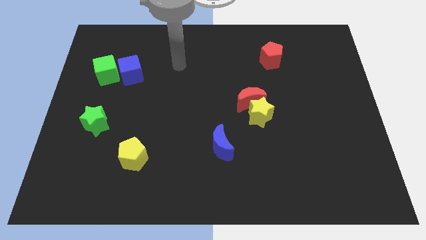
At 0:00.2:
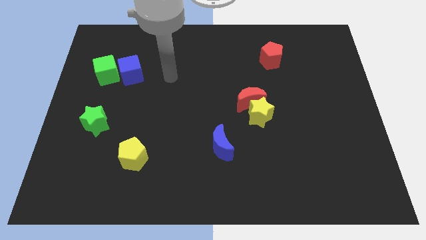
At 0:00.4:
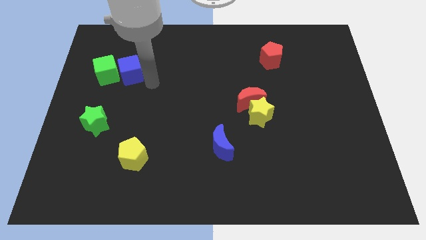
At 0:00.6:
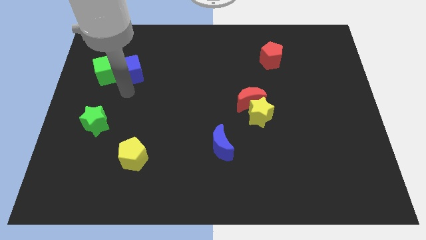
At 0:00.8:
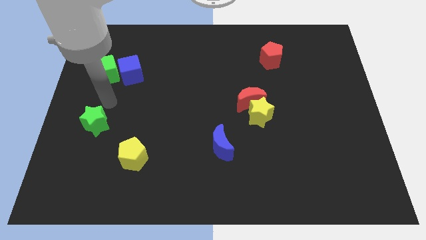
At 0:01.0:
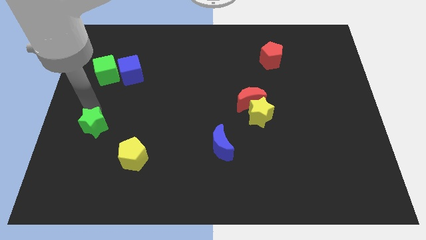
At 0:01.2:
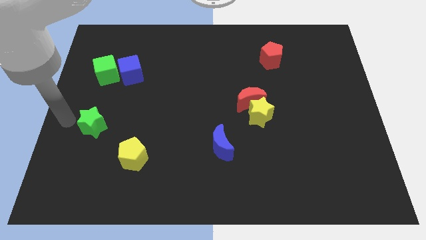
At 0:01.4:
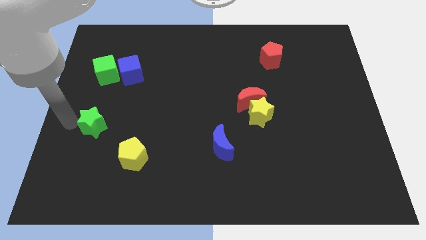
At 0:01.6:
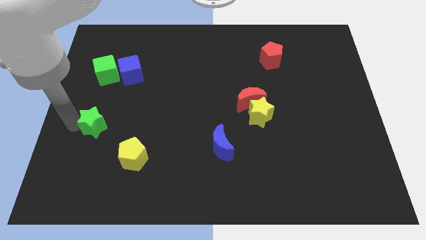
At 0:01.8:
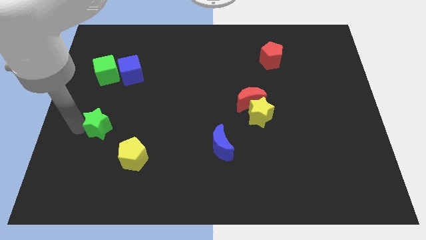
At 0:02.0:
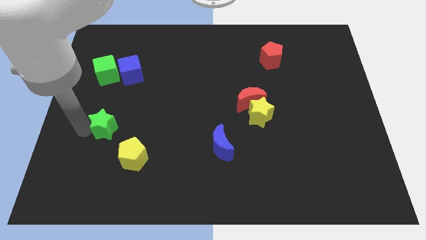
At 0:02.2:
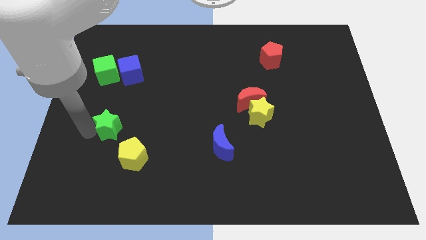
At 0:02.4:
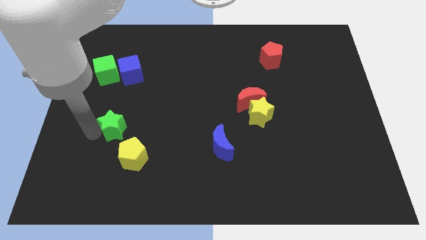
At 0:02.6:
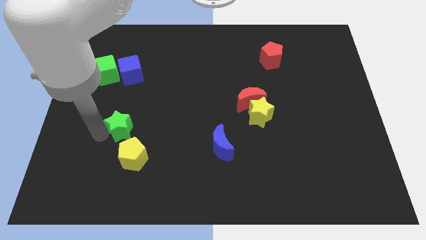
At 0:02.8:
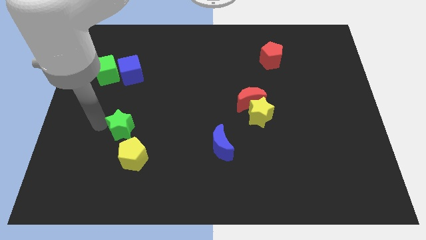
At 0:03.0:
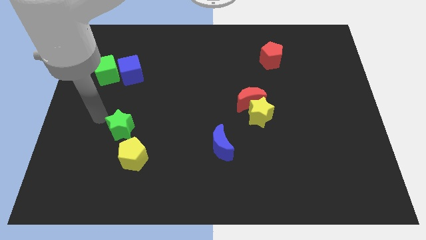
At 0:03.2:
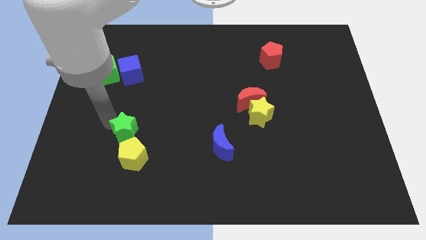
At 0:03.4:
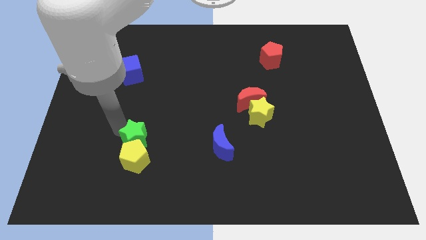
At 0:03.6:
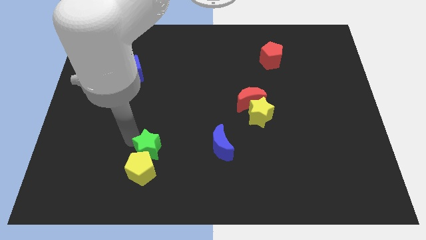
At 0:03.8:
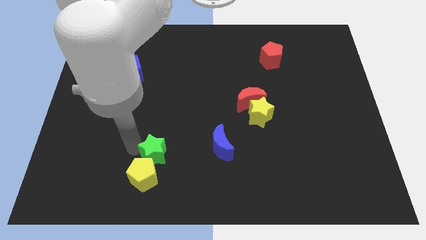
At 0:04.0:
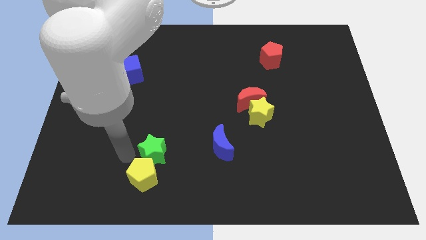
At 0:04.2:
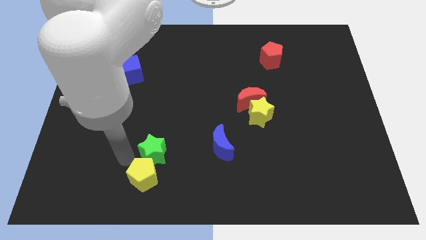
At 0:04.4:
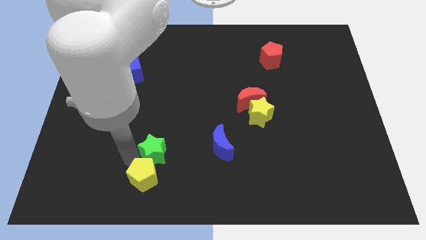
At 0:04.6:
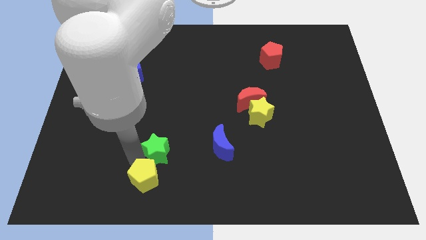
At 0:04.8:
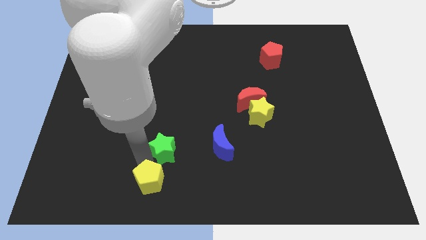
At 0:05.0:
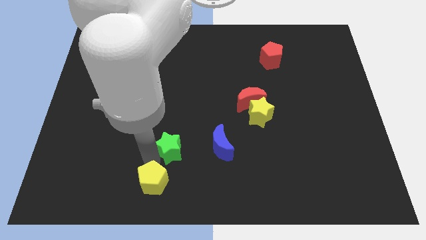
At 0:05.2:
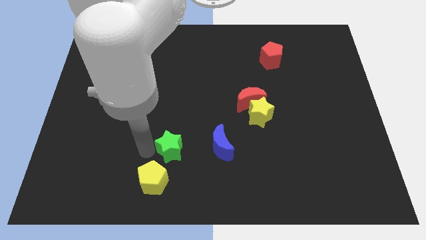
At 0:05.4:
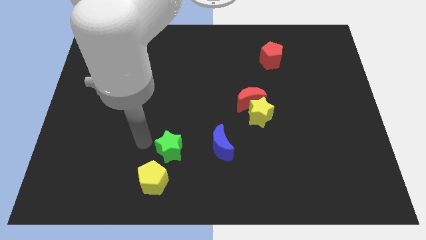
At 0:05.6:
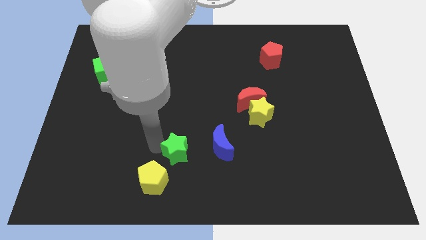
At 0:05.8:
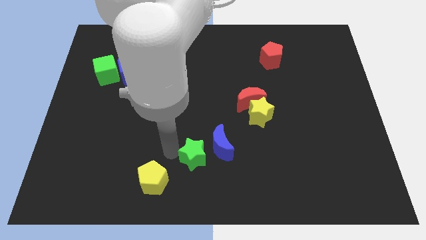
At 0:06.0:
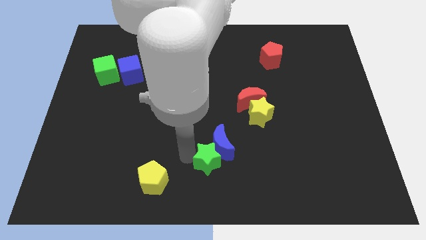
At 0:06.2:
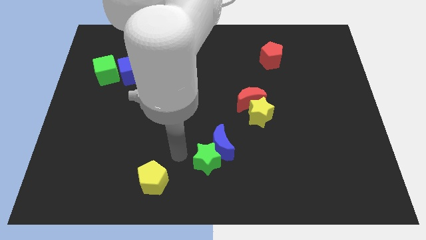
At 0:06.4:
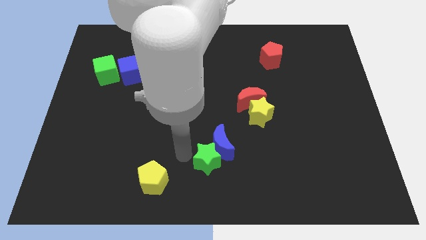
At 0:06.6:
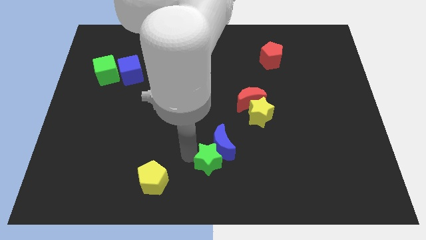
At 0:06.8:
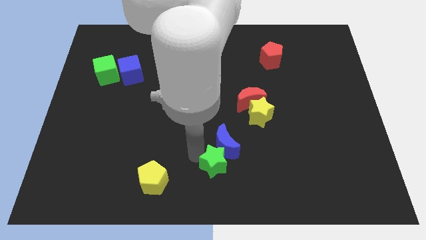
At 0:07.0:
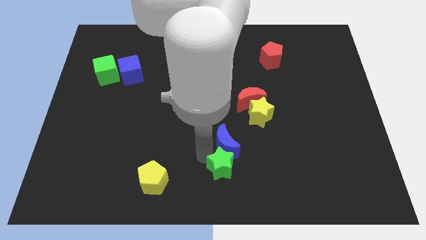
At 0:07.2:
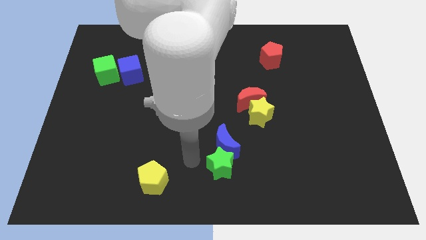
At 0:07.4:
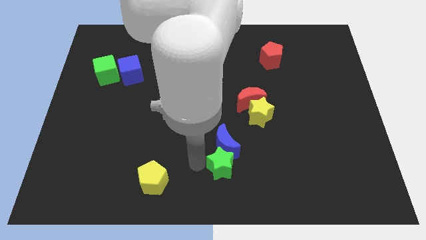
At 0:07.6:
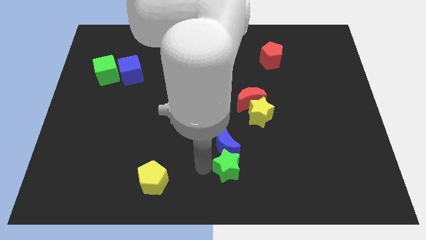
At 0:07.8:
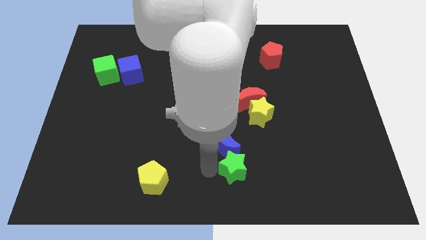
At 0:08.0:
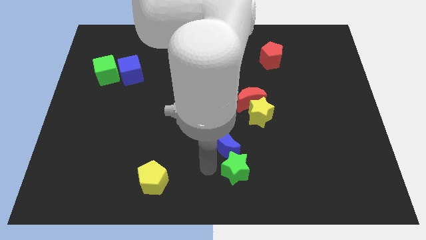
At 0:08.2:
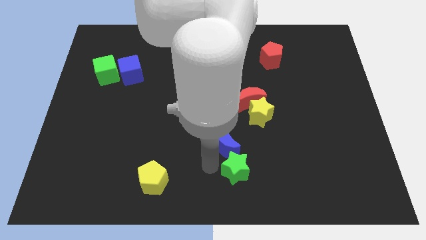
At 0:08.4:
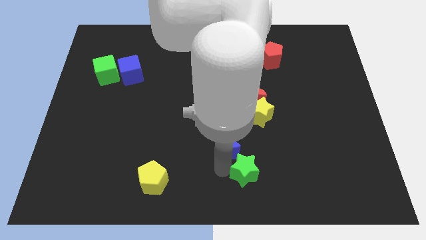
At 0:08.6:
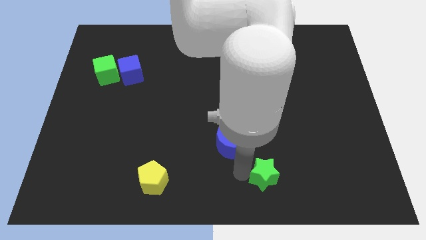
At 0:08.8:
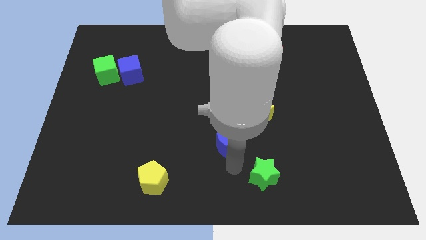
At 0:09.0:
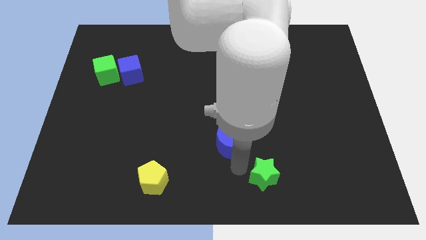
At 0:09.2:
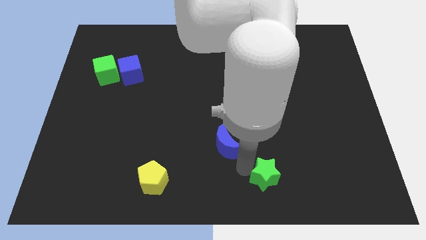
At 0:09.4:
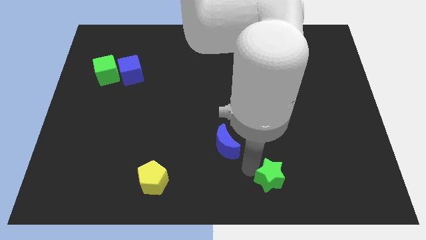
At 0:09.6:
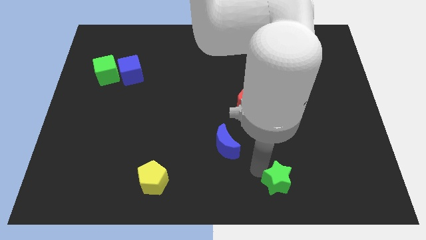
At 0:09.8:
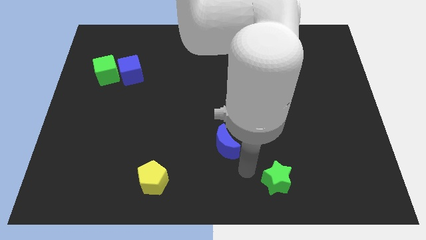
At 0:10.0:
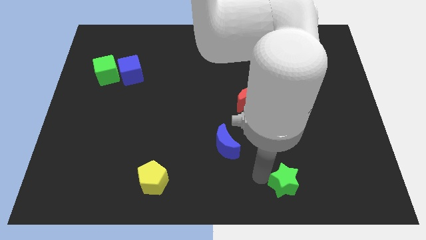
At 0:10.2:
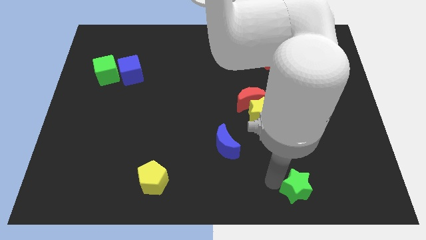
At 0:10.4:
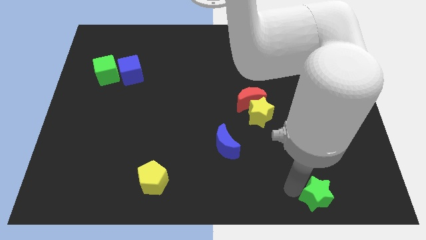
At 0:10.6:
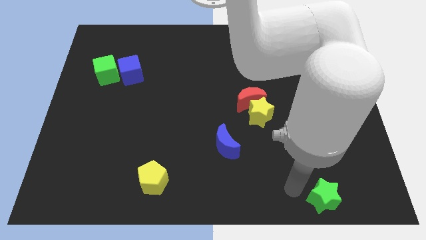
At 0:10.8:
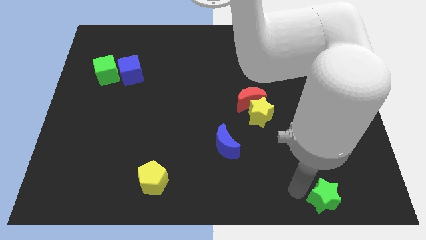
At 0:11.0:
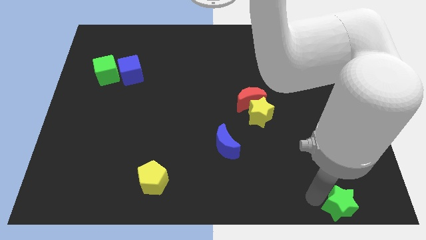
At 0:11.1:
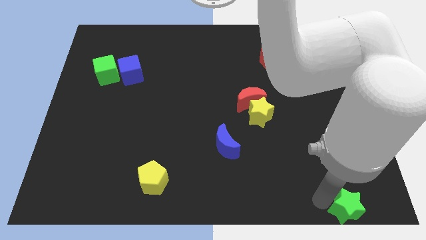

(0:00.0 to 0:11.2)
move the green star to the lower right corner

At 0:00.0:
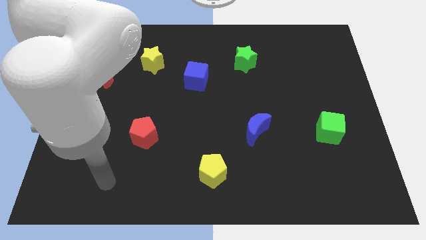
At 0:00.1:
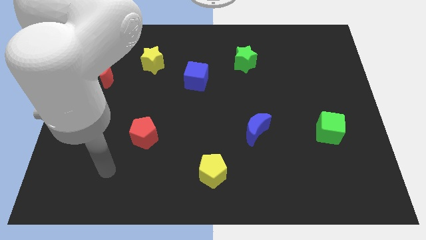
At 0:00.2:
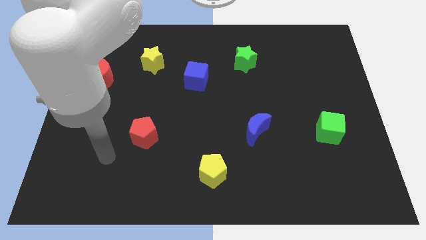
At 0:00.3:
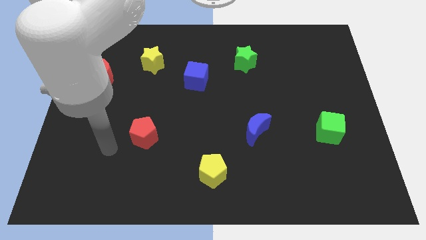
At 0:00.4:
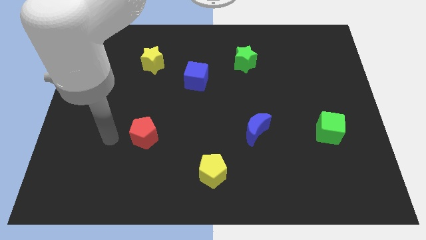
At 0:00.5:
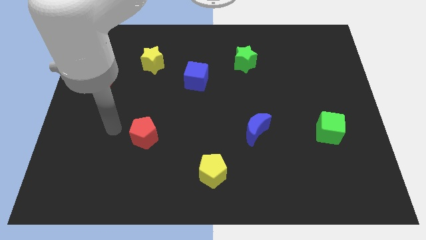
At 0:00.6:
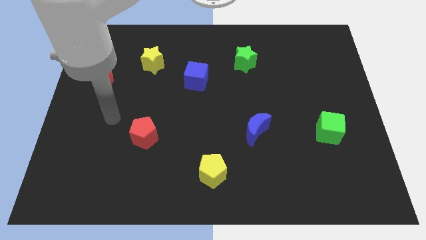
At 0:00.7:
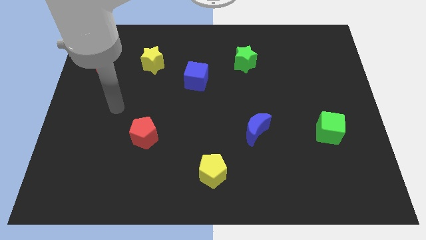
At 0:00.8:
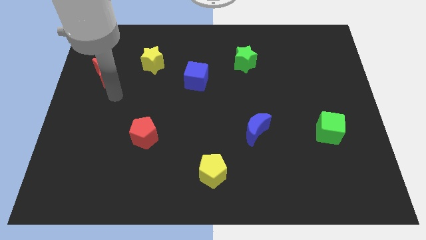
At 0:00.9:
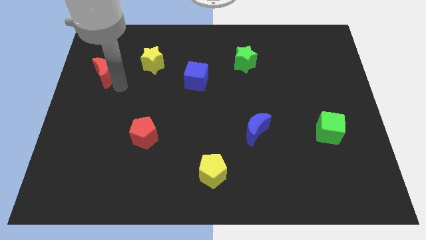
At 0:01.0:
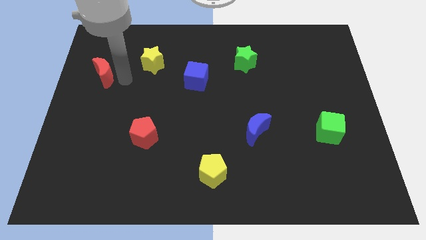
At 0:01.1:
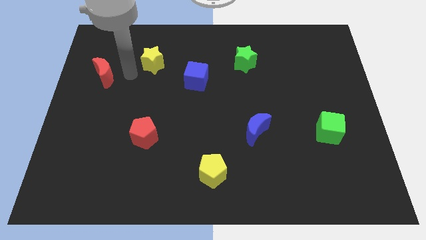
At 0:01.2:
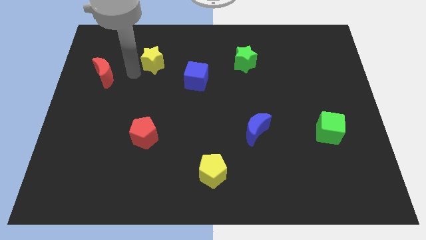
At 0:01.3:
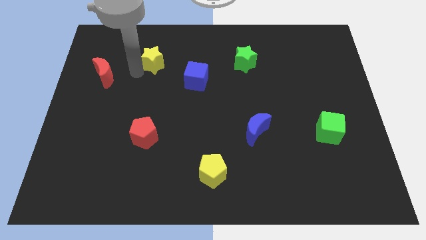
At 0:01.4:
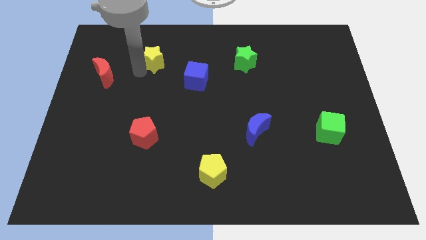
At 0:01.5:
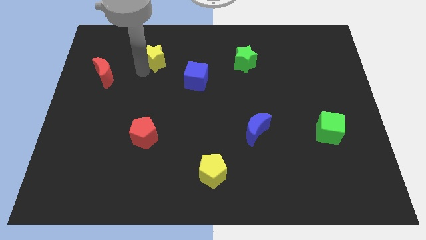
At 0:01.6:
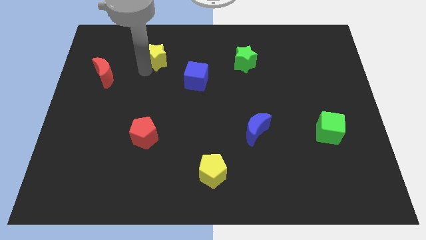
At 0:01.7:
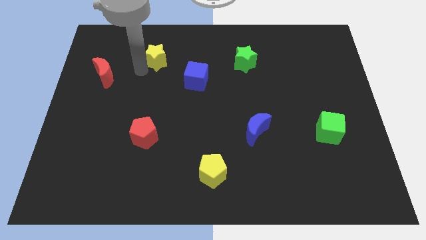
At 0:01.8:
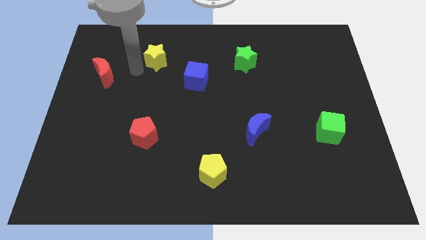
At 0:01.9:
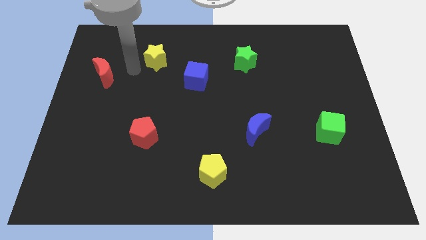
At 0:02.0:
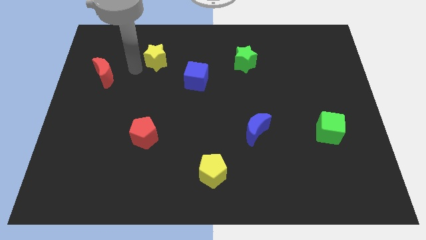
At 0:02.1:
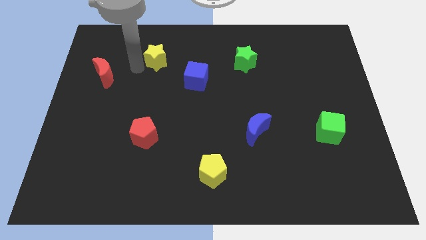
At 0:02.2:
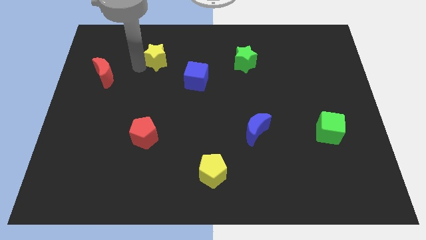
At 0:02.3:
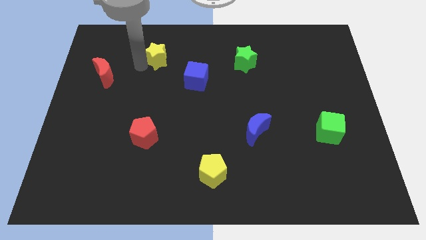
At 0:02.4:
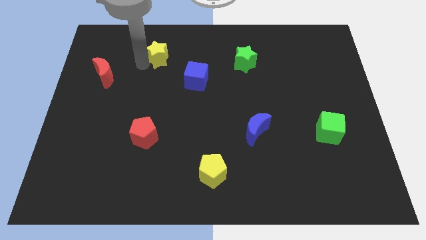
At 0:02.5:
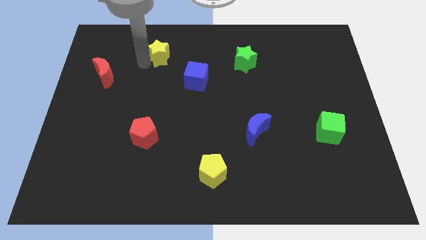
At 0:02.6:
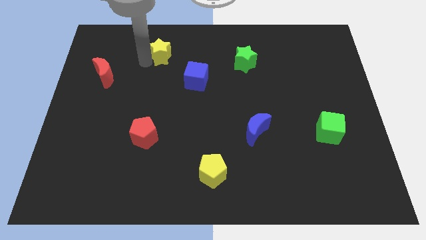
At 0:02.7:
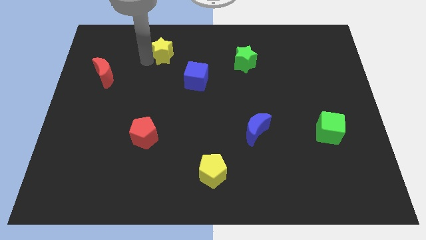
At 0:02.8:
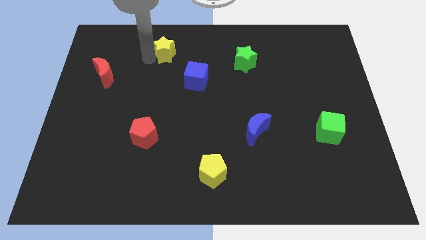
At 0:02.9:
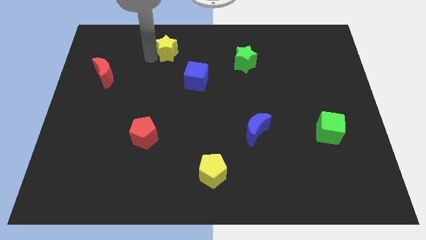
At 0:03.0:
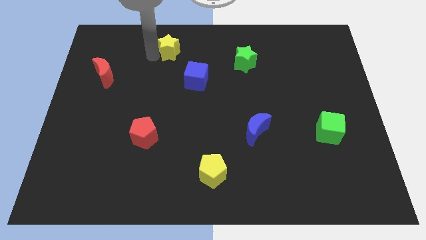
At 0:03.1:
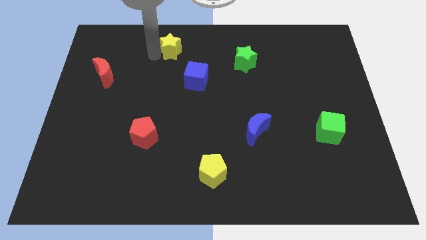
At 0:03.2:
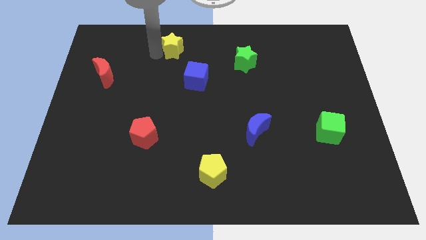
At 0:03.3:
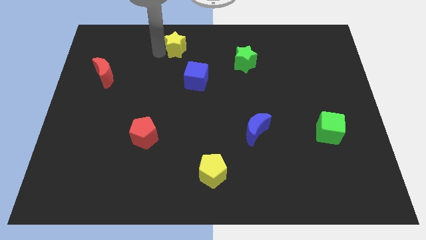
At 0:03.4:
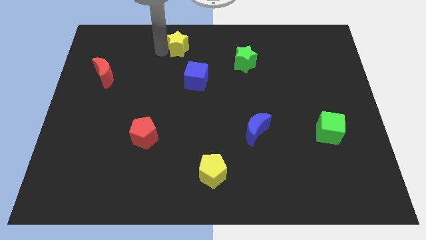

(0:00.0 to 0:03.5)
slide the yellow star to the top side
